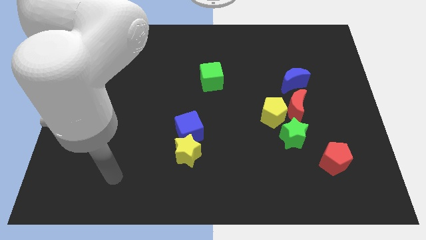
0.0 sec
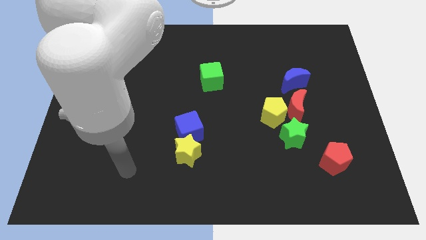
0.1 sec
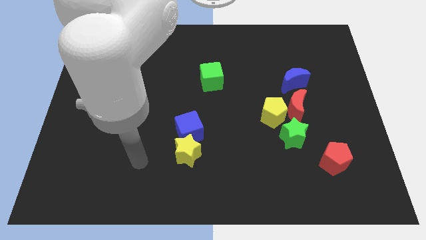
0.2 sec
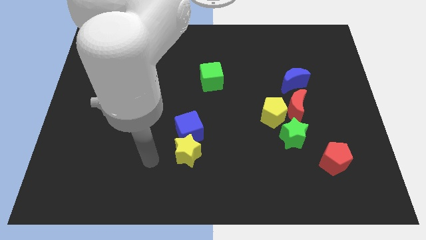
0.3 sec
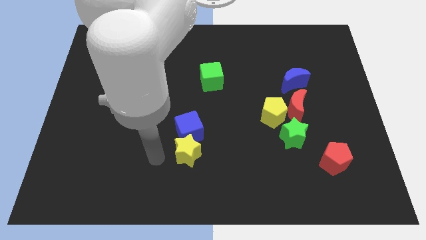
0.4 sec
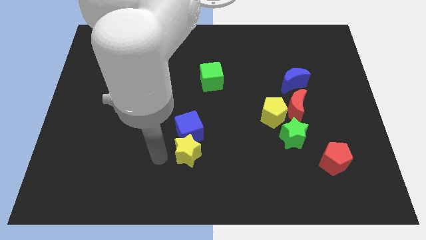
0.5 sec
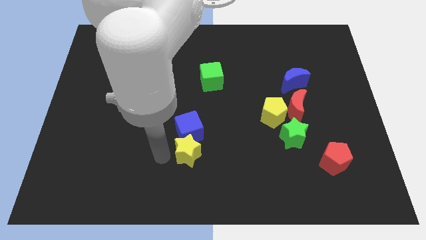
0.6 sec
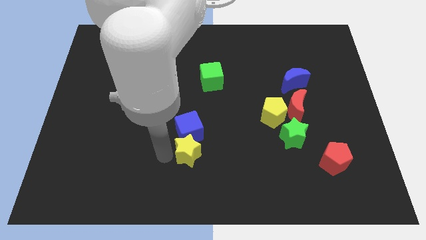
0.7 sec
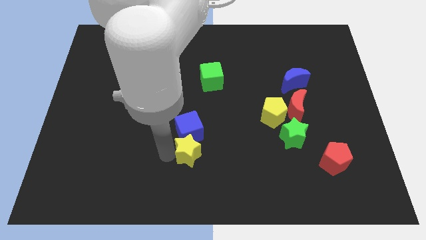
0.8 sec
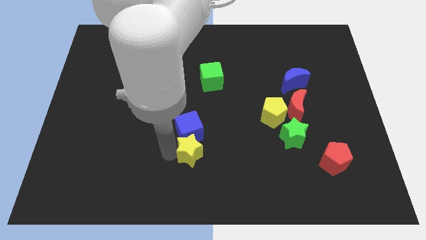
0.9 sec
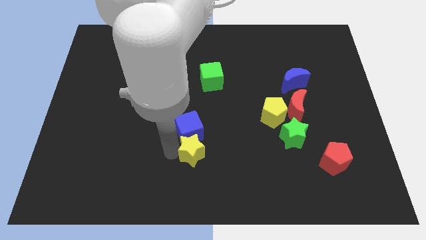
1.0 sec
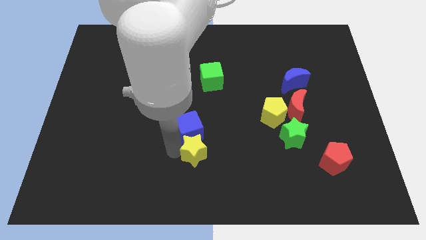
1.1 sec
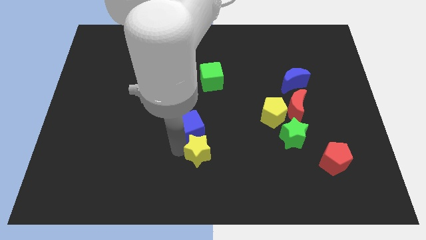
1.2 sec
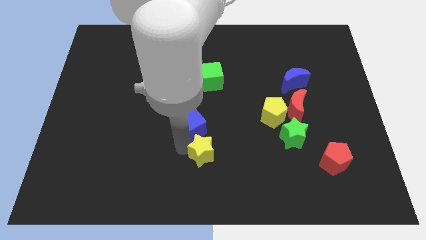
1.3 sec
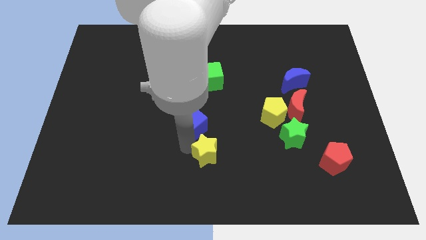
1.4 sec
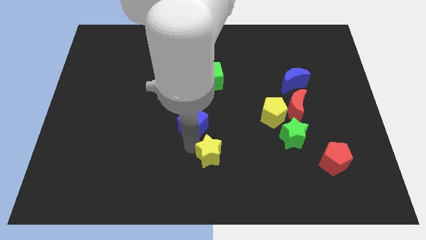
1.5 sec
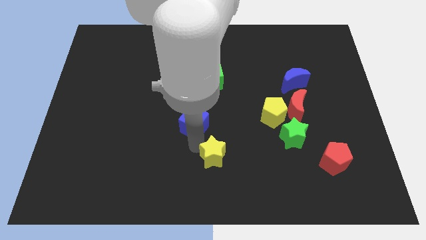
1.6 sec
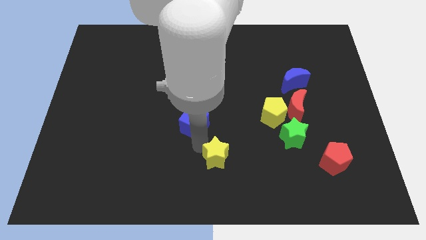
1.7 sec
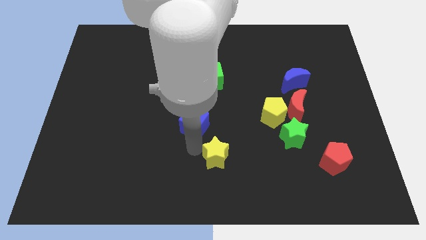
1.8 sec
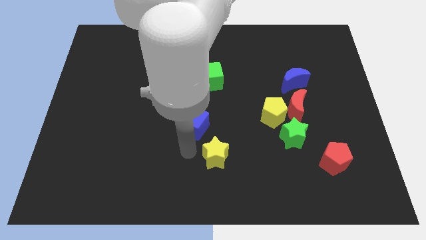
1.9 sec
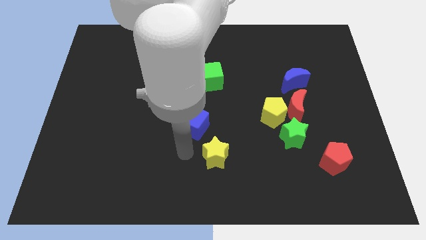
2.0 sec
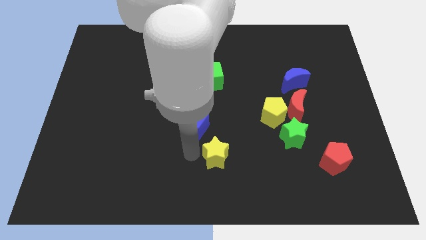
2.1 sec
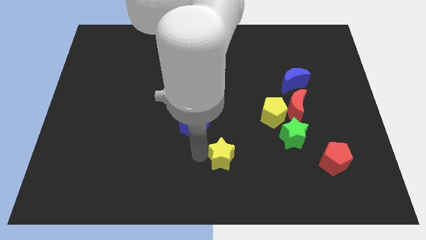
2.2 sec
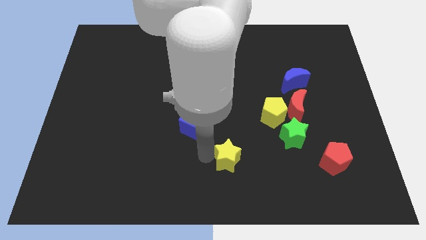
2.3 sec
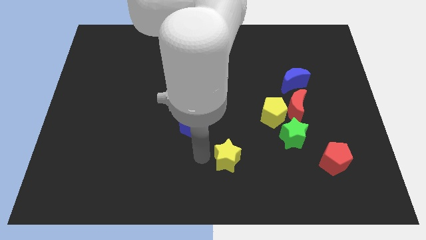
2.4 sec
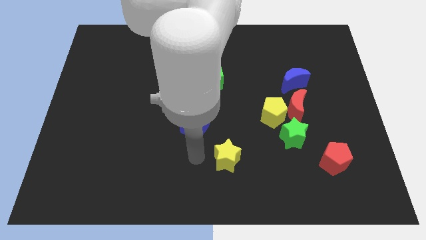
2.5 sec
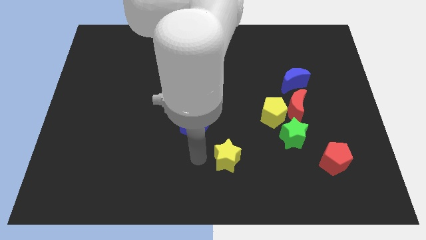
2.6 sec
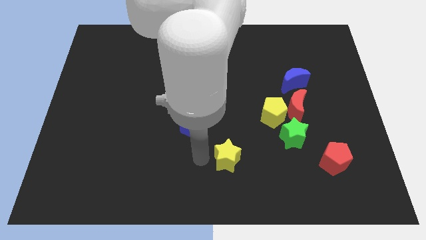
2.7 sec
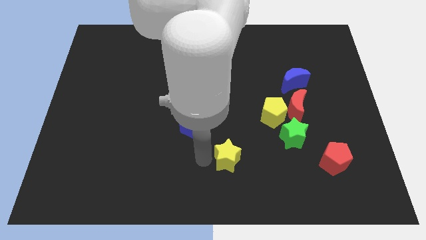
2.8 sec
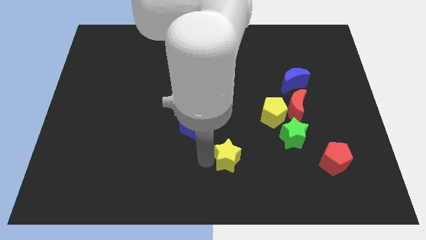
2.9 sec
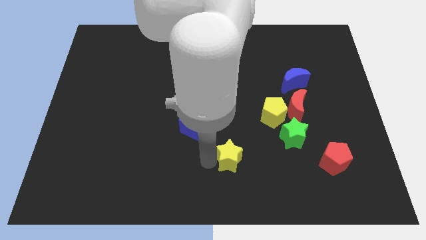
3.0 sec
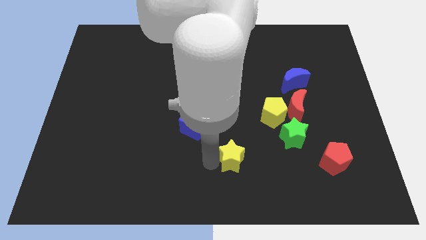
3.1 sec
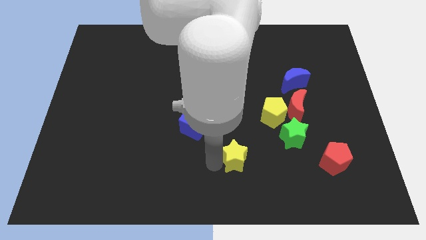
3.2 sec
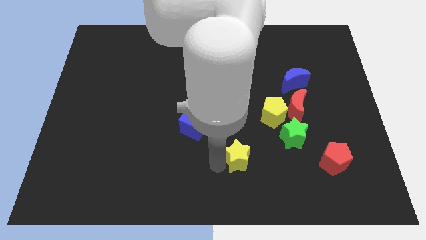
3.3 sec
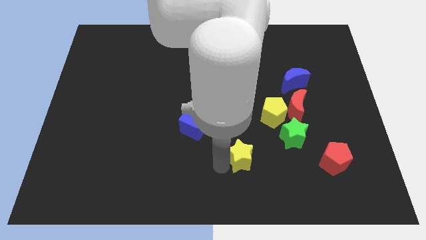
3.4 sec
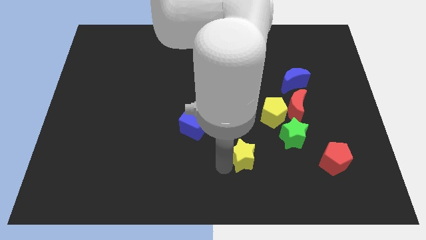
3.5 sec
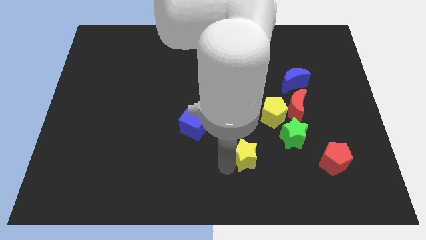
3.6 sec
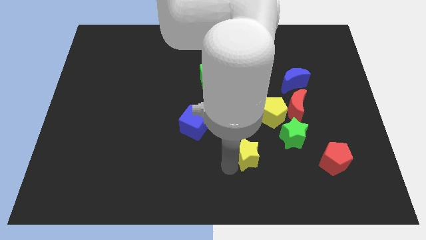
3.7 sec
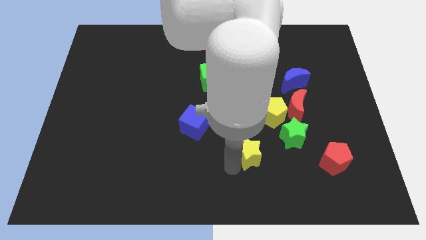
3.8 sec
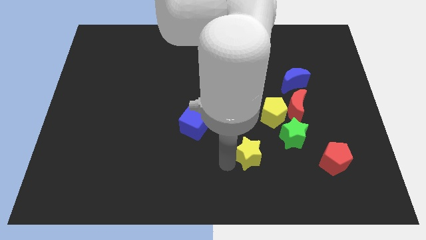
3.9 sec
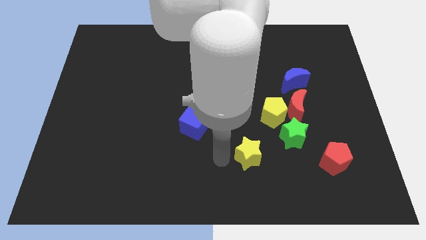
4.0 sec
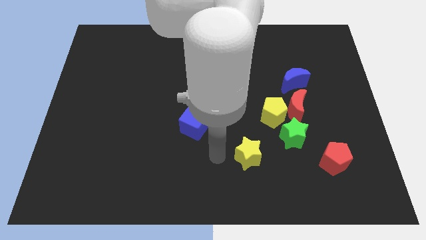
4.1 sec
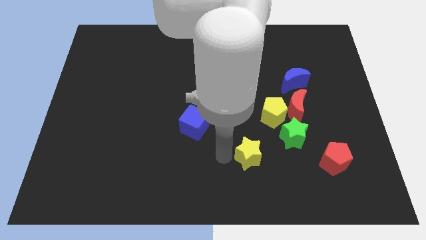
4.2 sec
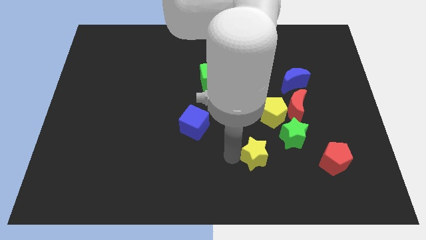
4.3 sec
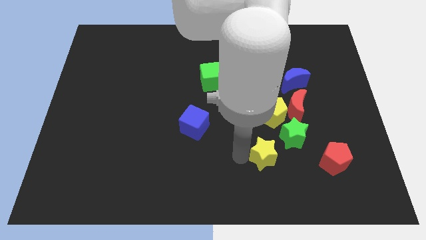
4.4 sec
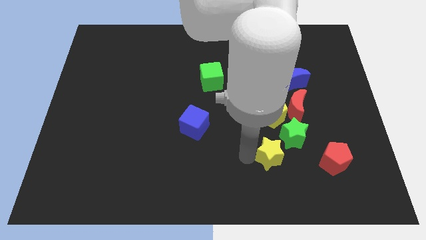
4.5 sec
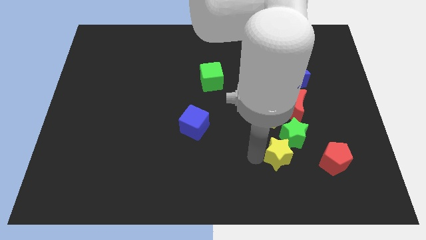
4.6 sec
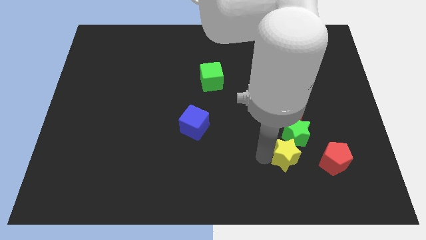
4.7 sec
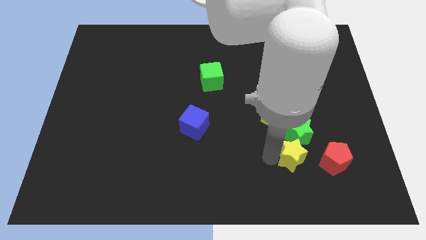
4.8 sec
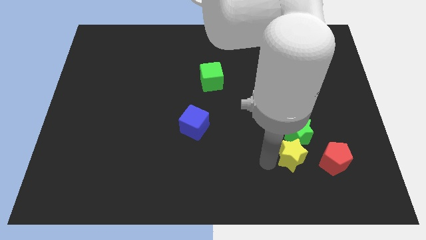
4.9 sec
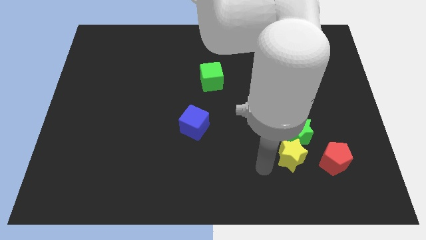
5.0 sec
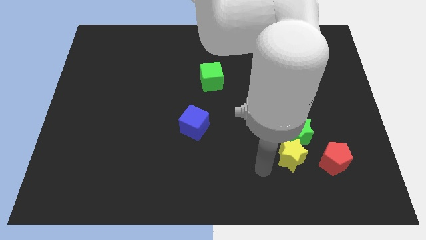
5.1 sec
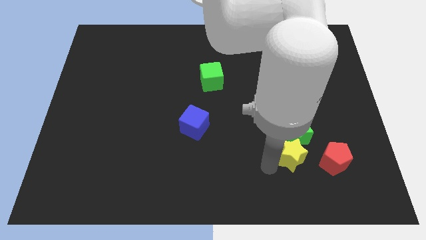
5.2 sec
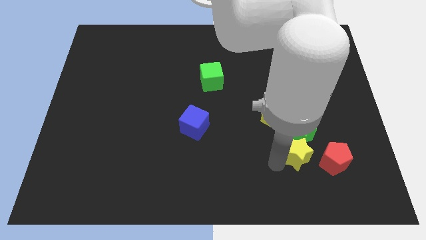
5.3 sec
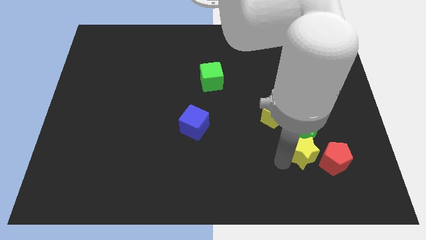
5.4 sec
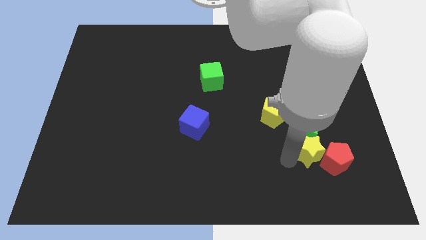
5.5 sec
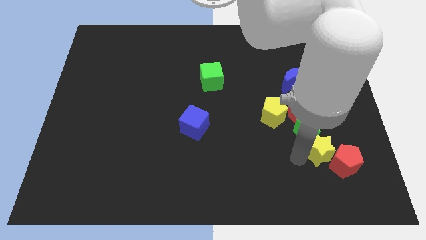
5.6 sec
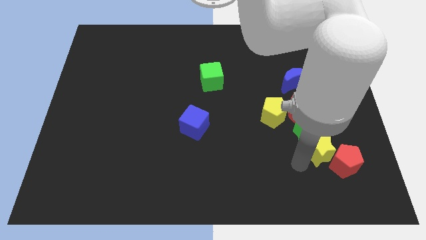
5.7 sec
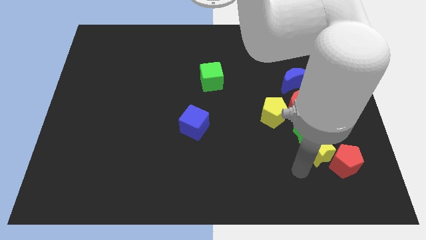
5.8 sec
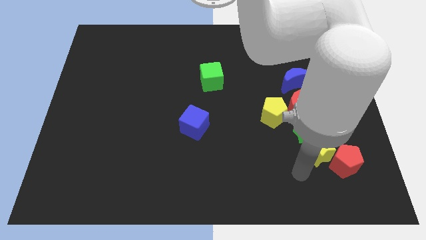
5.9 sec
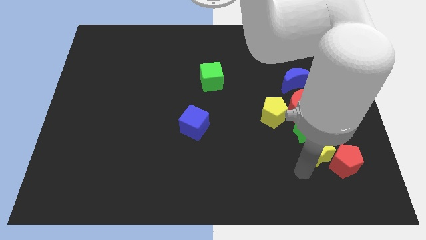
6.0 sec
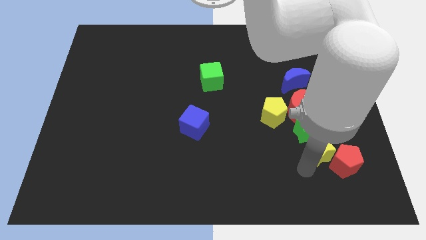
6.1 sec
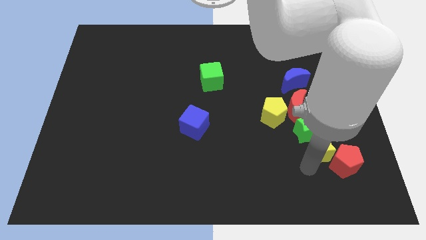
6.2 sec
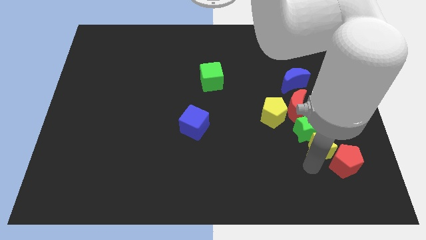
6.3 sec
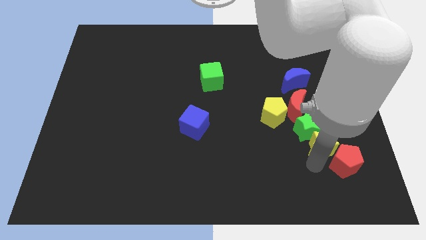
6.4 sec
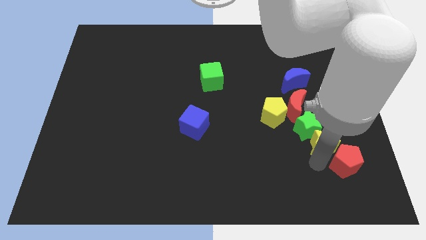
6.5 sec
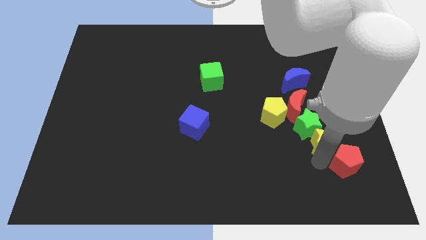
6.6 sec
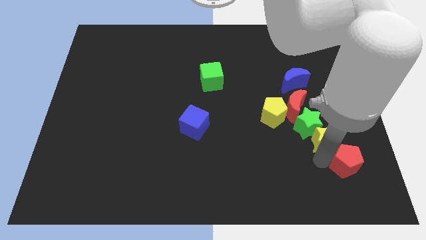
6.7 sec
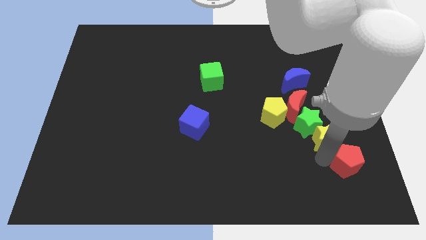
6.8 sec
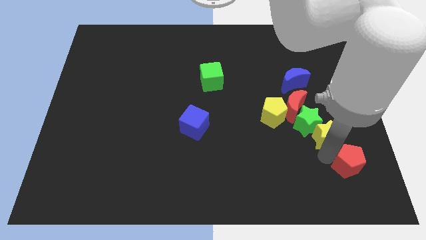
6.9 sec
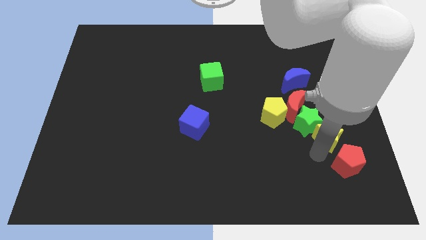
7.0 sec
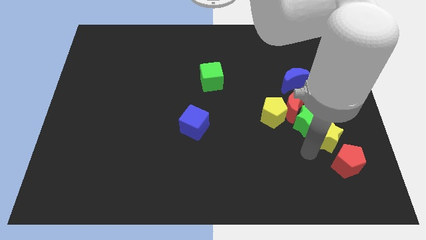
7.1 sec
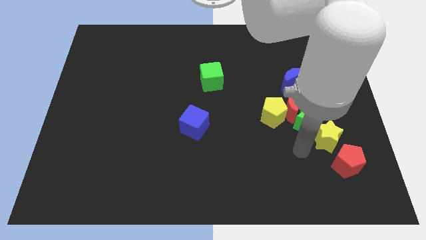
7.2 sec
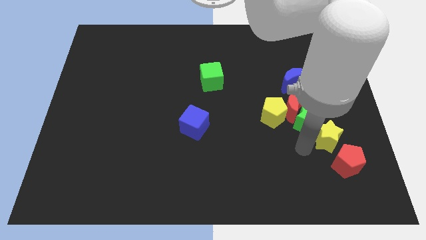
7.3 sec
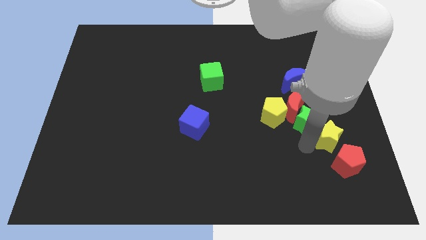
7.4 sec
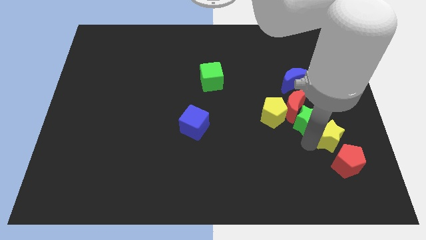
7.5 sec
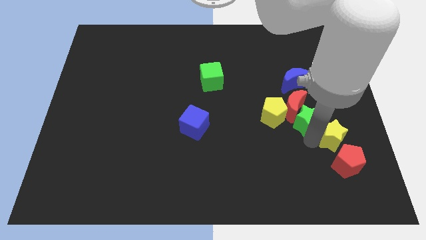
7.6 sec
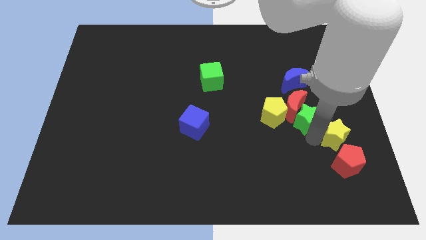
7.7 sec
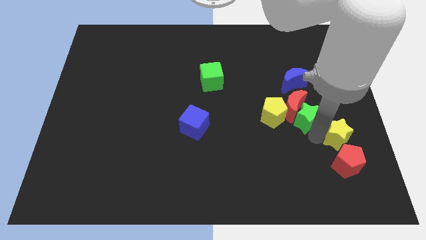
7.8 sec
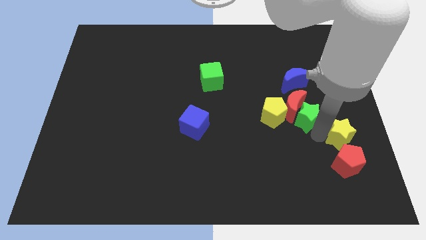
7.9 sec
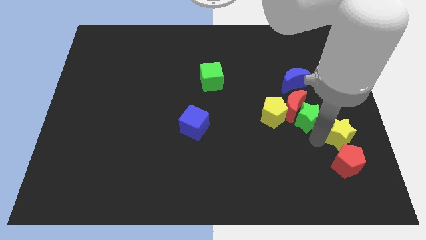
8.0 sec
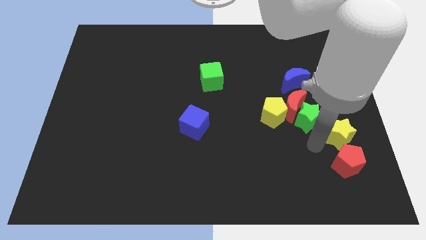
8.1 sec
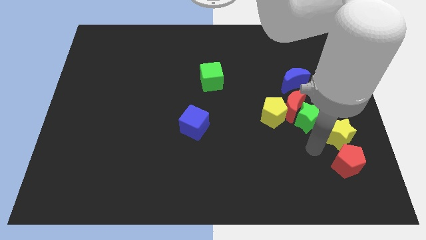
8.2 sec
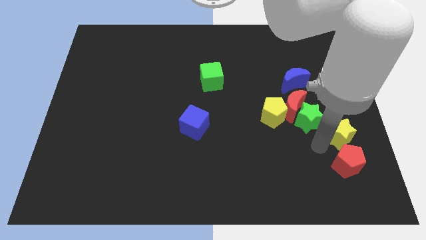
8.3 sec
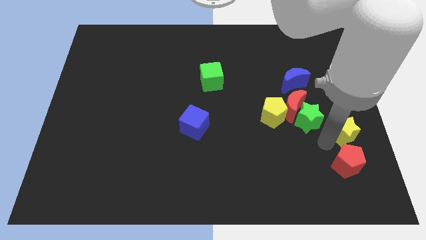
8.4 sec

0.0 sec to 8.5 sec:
move the yellow star to the center right
